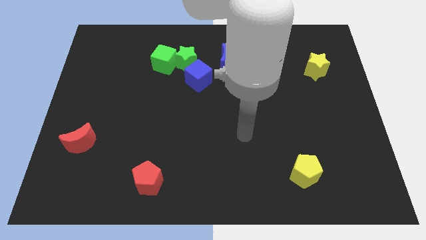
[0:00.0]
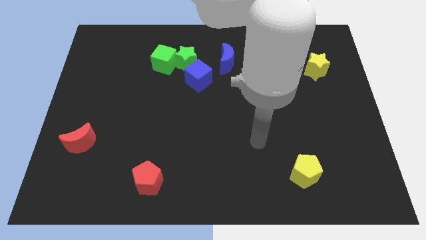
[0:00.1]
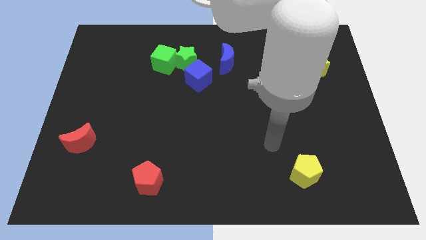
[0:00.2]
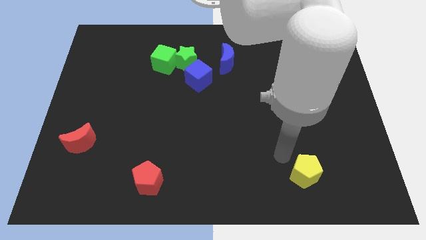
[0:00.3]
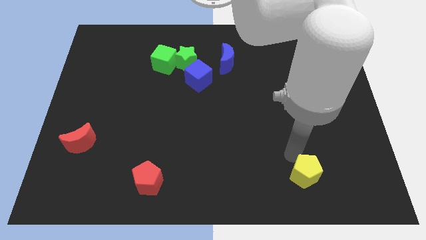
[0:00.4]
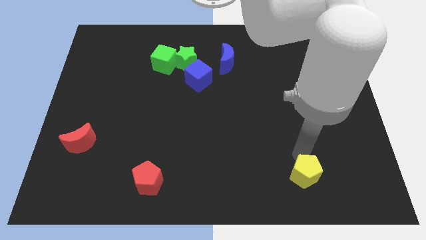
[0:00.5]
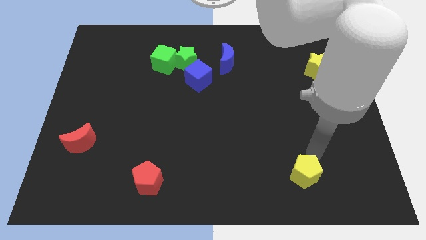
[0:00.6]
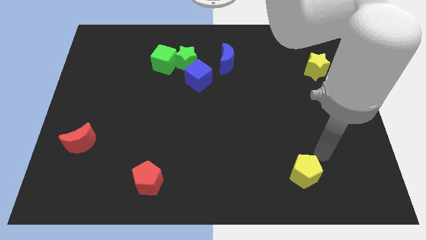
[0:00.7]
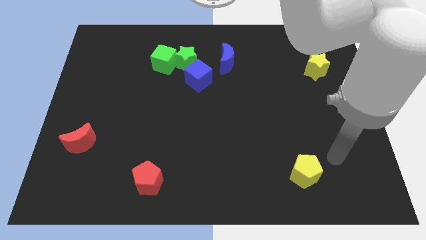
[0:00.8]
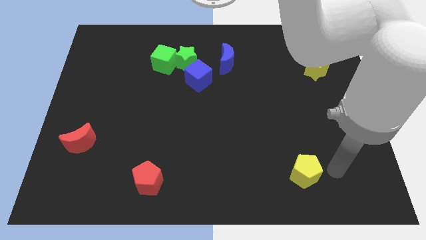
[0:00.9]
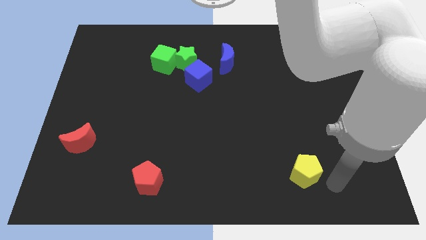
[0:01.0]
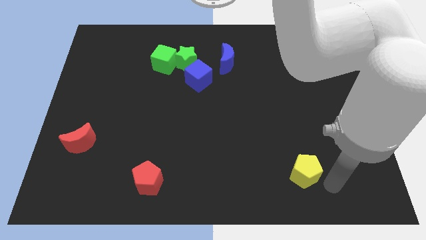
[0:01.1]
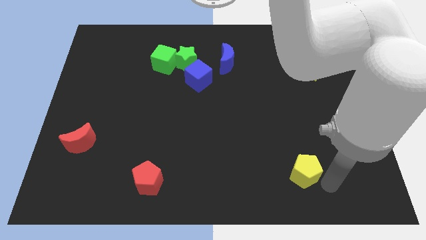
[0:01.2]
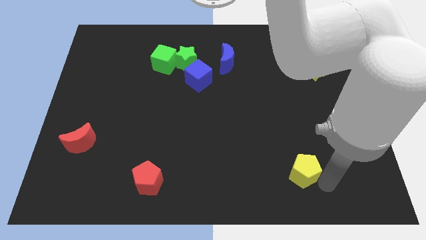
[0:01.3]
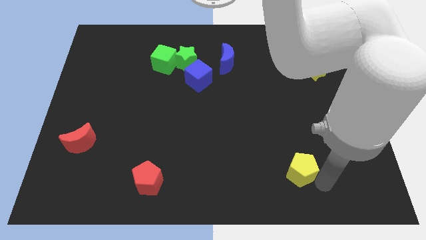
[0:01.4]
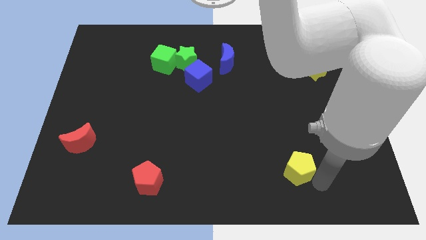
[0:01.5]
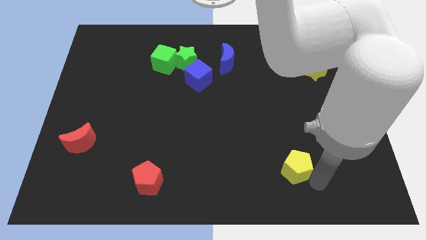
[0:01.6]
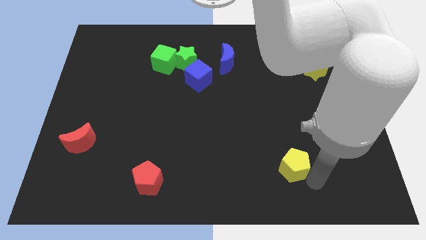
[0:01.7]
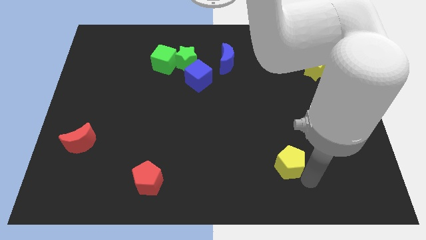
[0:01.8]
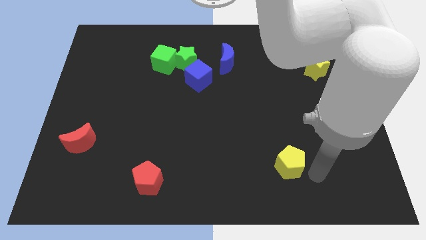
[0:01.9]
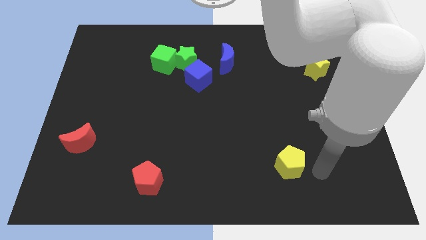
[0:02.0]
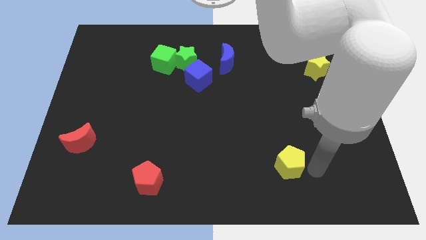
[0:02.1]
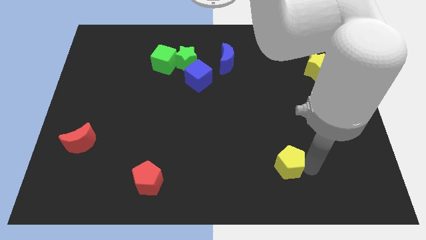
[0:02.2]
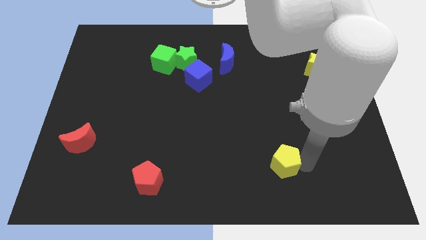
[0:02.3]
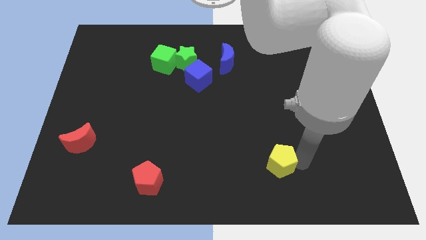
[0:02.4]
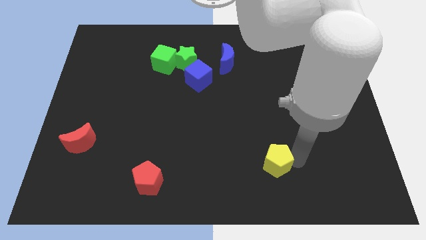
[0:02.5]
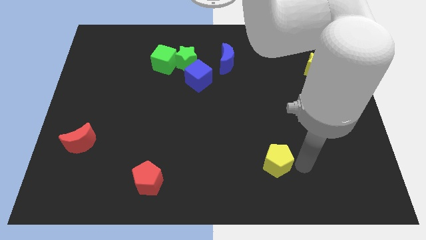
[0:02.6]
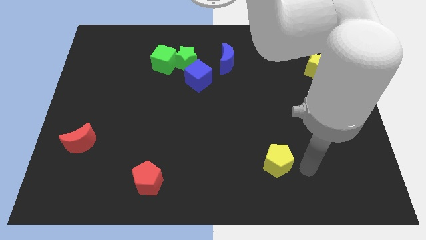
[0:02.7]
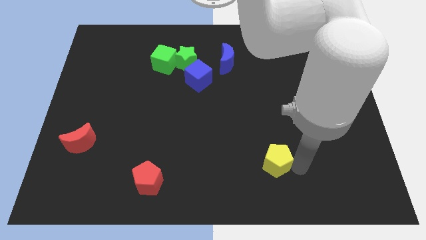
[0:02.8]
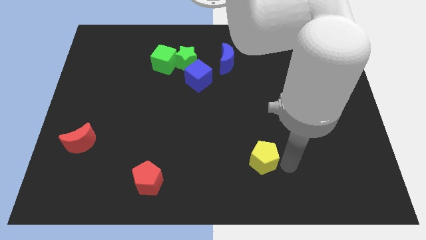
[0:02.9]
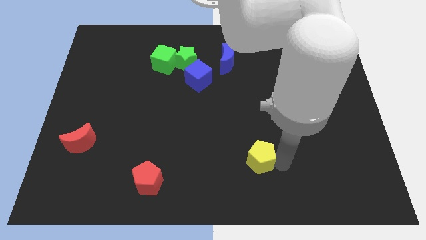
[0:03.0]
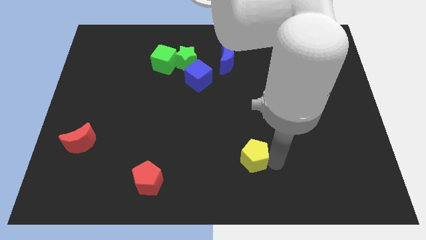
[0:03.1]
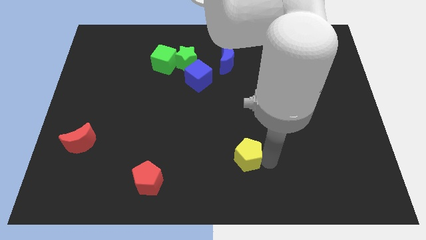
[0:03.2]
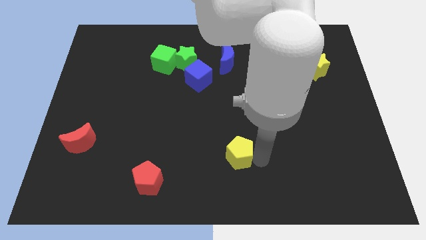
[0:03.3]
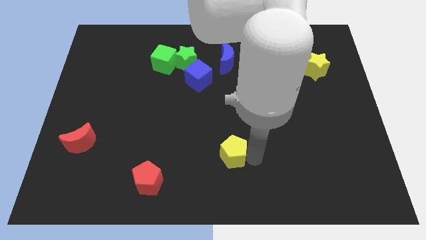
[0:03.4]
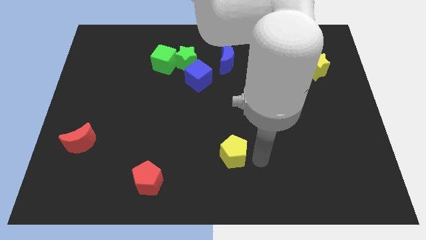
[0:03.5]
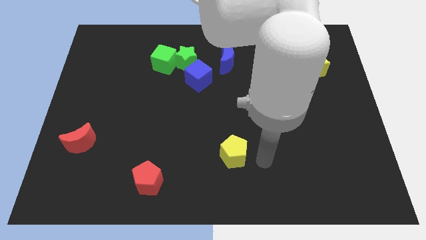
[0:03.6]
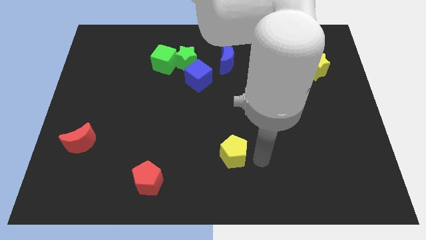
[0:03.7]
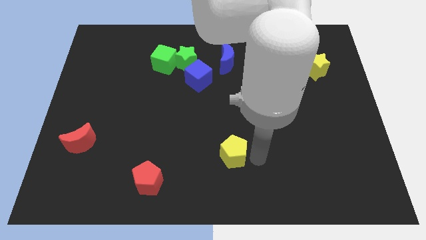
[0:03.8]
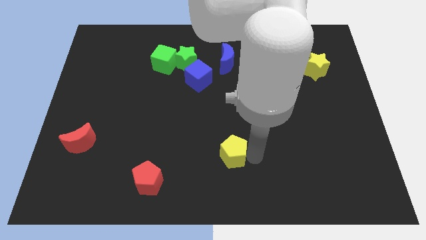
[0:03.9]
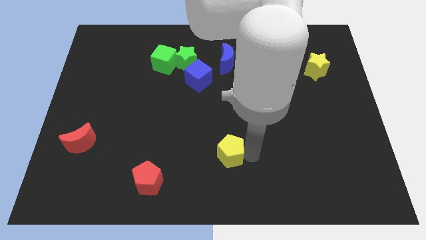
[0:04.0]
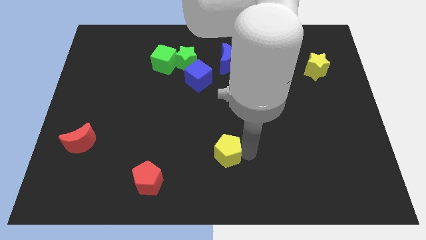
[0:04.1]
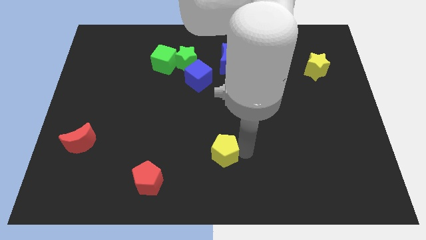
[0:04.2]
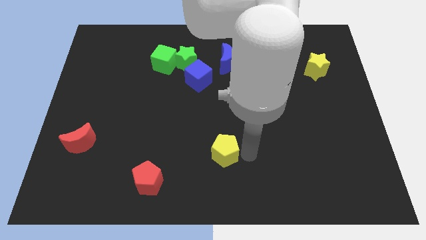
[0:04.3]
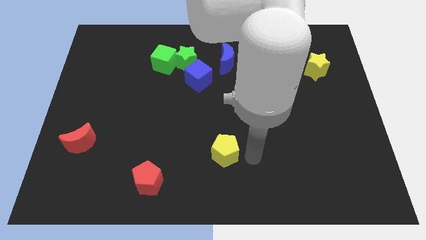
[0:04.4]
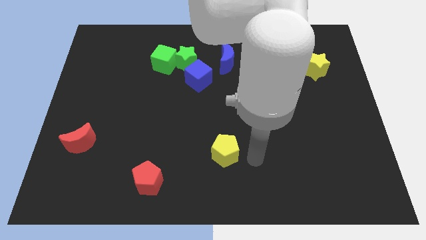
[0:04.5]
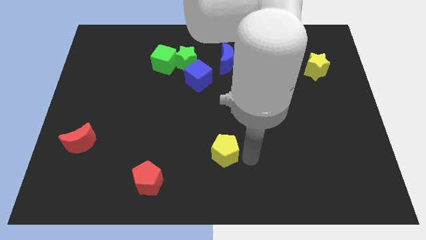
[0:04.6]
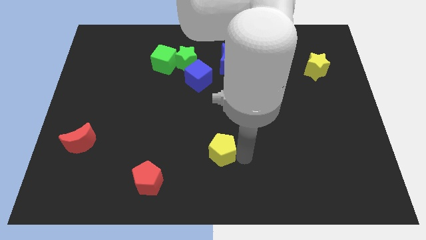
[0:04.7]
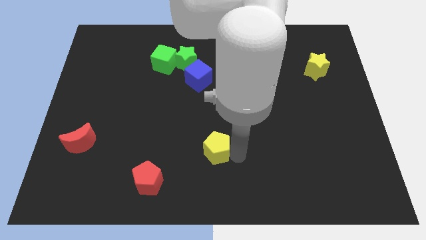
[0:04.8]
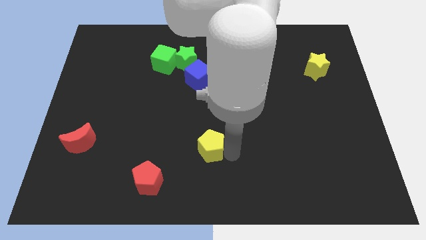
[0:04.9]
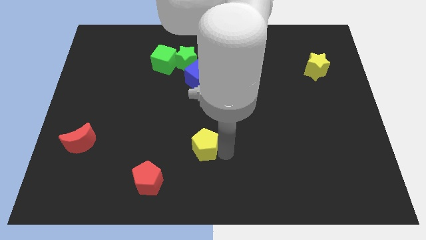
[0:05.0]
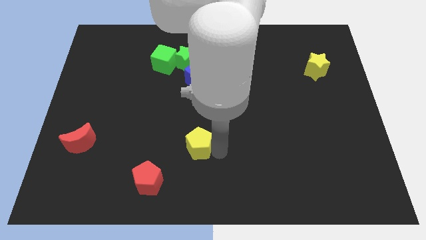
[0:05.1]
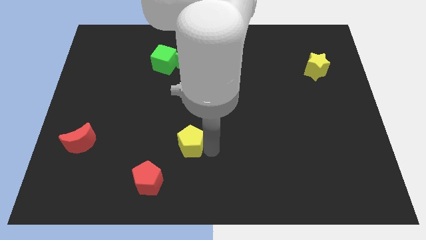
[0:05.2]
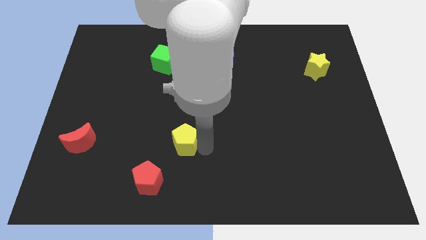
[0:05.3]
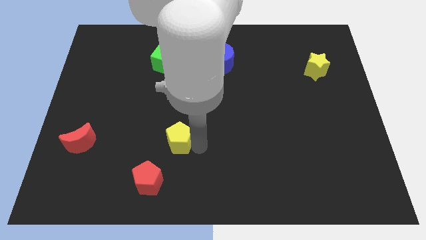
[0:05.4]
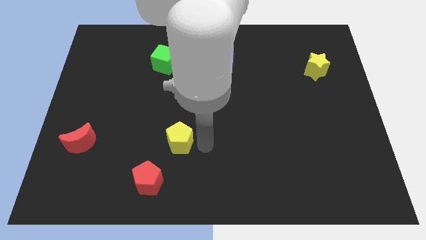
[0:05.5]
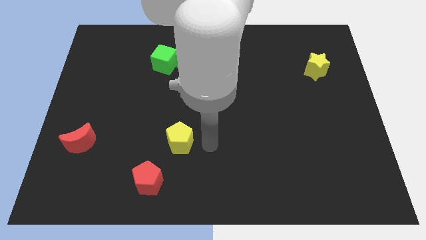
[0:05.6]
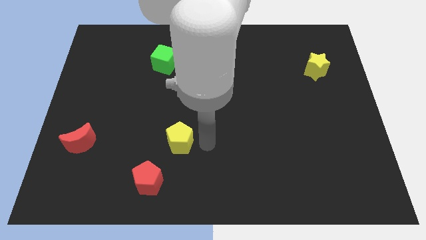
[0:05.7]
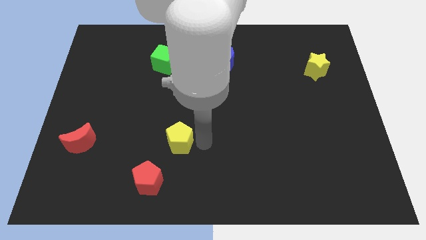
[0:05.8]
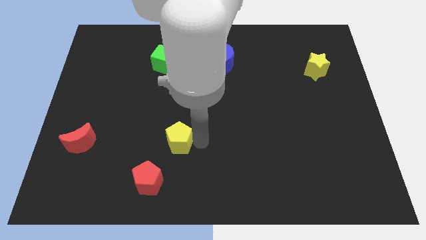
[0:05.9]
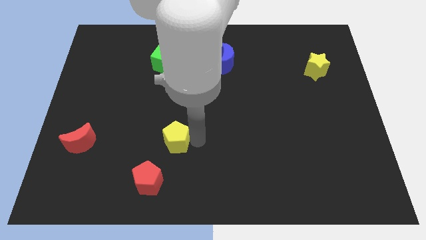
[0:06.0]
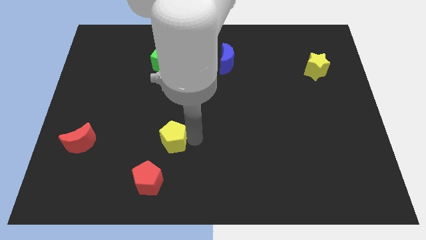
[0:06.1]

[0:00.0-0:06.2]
put the yellow pentagon to the top of the red pentagon
